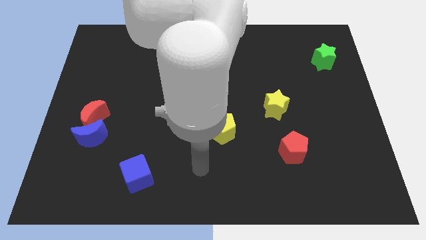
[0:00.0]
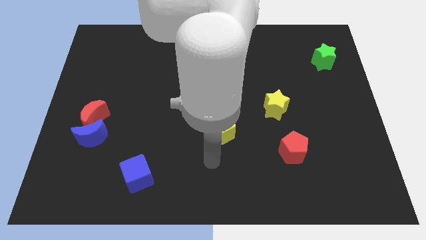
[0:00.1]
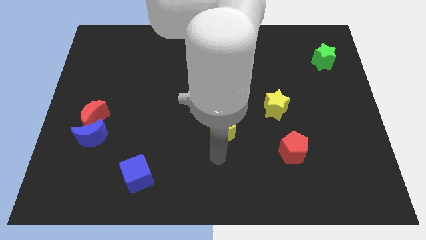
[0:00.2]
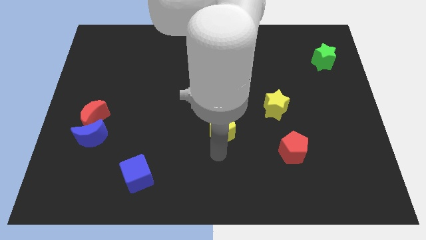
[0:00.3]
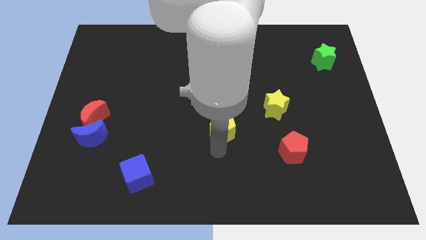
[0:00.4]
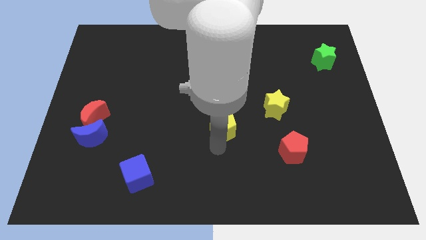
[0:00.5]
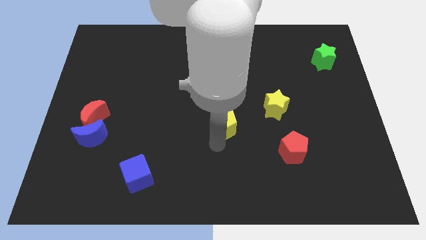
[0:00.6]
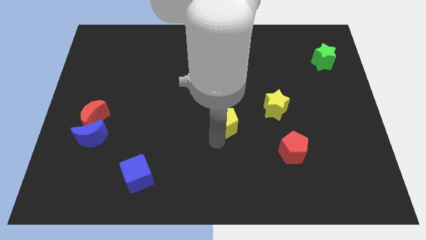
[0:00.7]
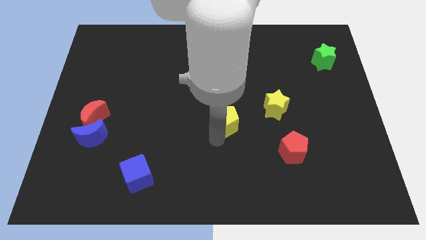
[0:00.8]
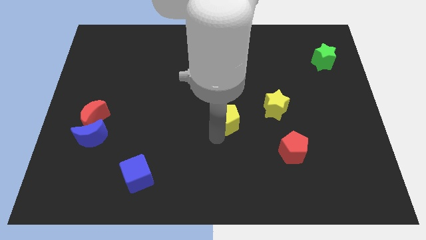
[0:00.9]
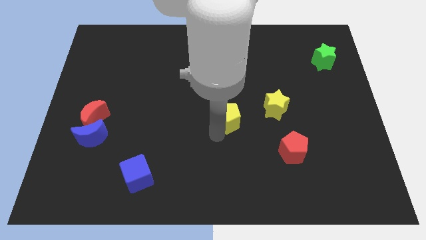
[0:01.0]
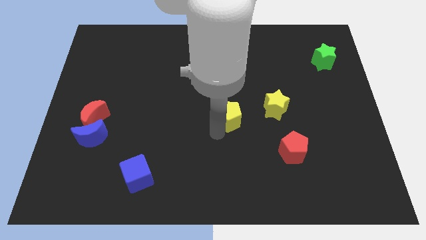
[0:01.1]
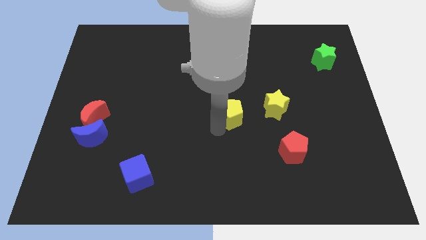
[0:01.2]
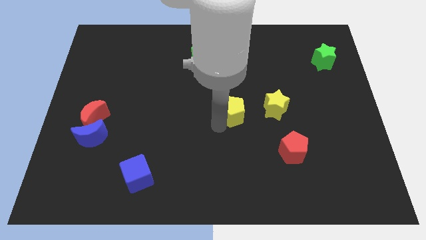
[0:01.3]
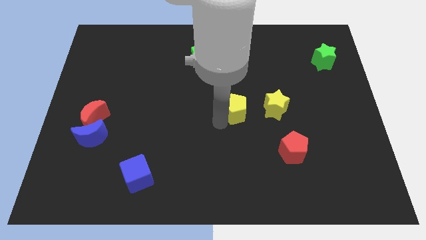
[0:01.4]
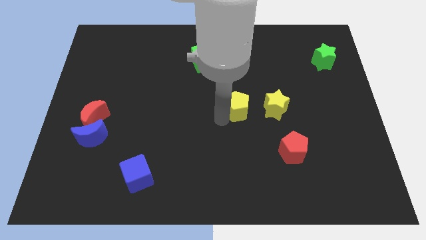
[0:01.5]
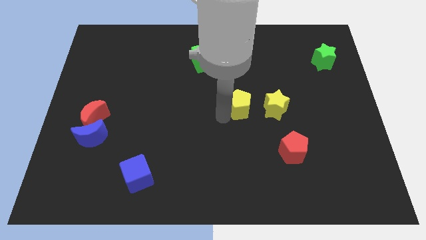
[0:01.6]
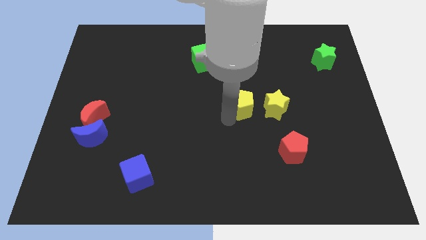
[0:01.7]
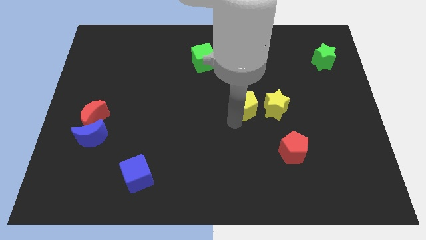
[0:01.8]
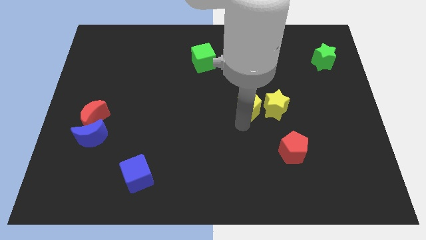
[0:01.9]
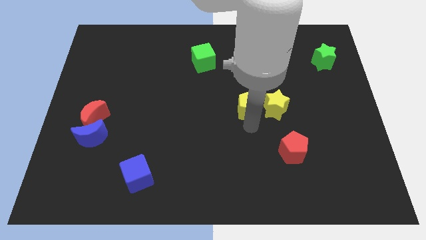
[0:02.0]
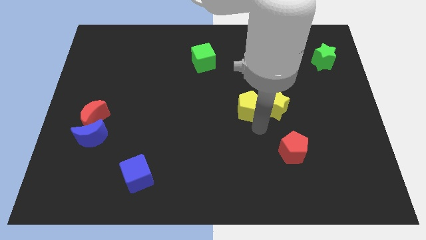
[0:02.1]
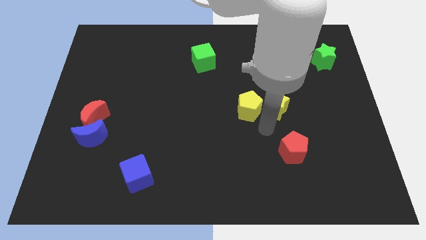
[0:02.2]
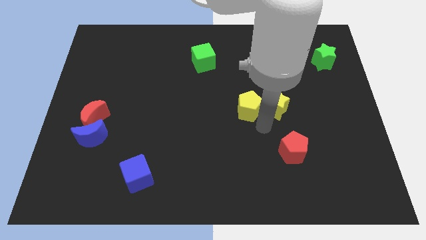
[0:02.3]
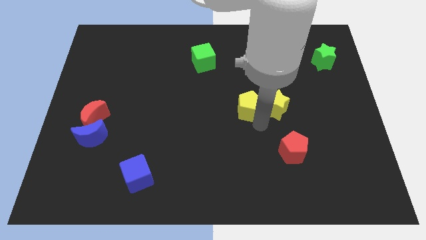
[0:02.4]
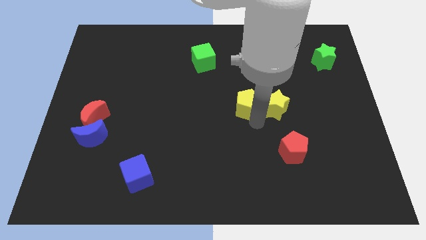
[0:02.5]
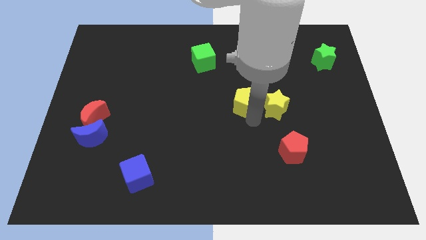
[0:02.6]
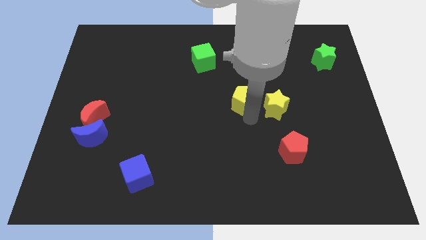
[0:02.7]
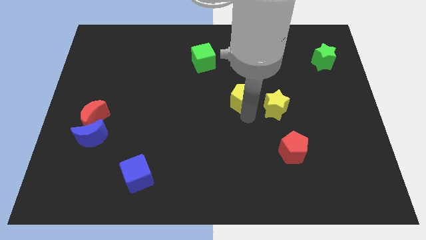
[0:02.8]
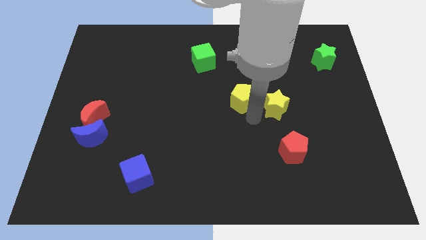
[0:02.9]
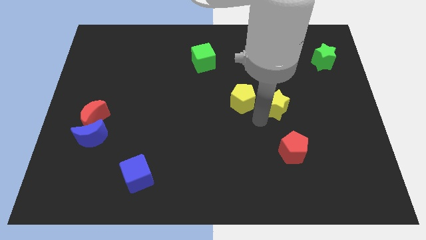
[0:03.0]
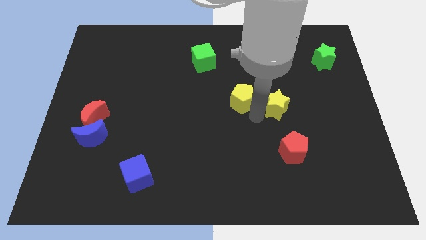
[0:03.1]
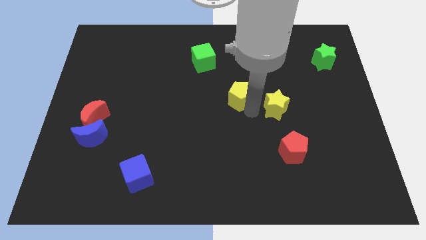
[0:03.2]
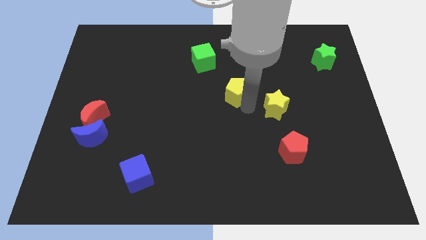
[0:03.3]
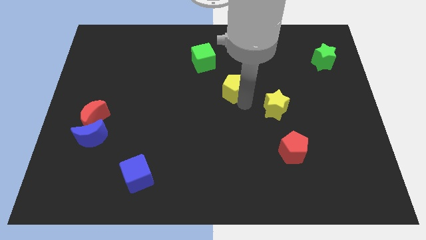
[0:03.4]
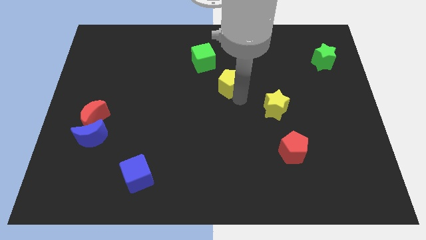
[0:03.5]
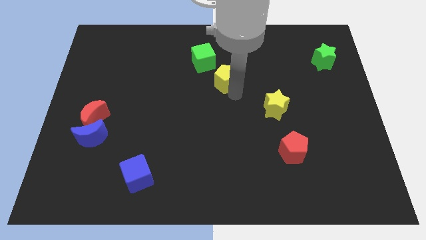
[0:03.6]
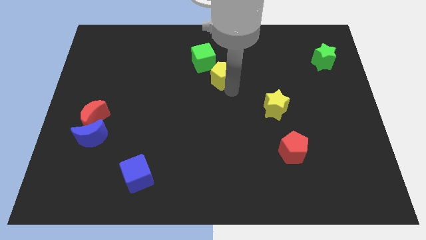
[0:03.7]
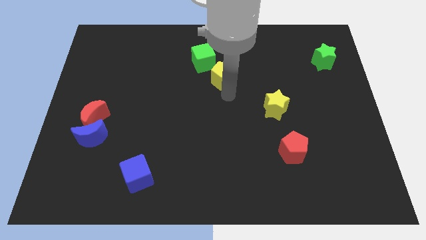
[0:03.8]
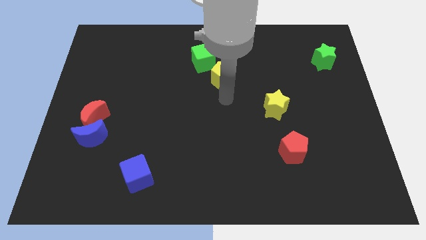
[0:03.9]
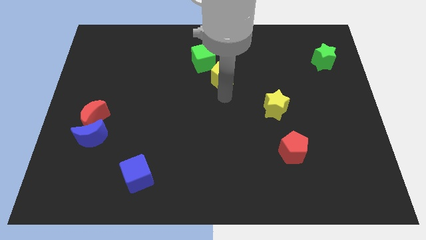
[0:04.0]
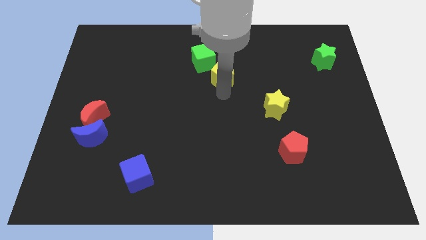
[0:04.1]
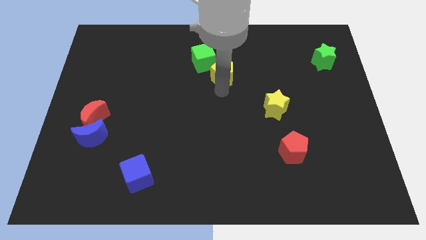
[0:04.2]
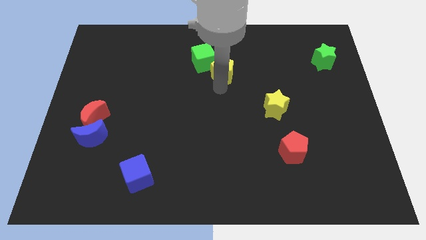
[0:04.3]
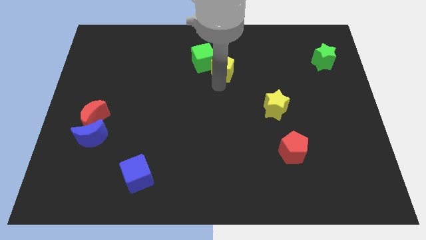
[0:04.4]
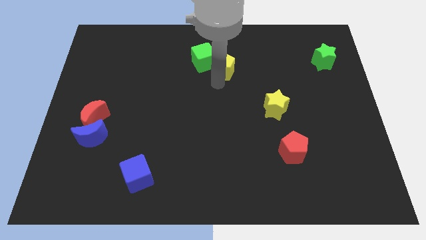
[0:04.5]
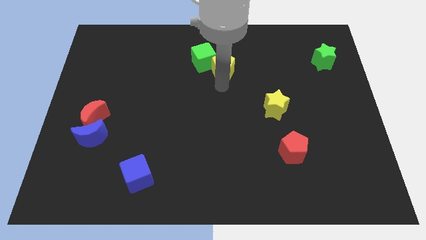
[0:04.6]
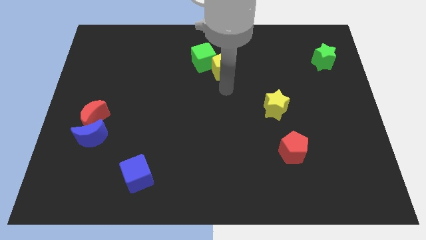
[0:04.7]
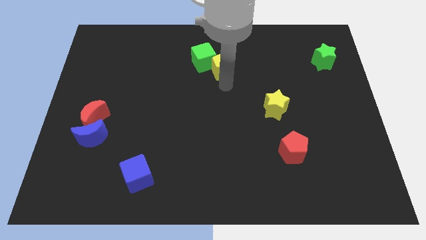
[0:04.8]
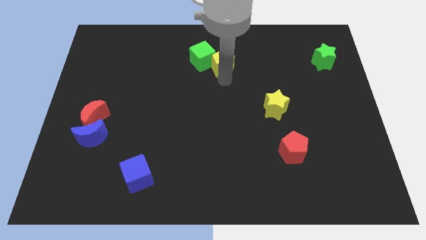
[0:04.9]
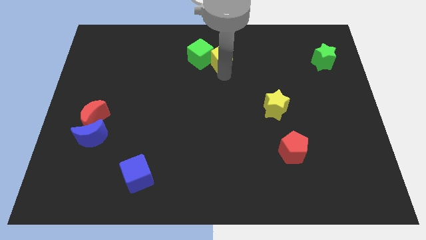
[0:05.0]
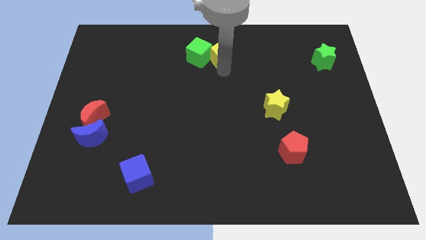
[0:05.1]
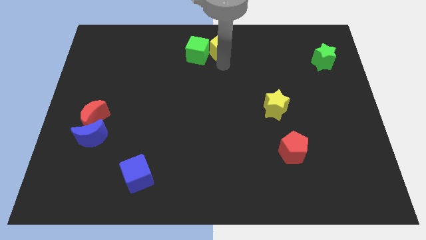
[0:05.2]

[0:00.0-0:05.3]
push the yellow pentagon to the top
